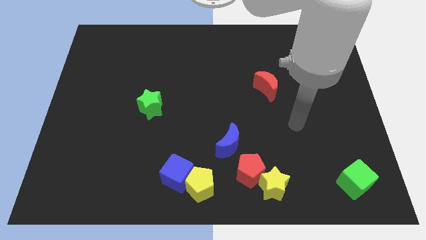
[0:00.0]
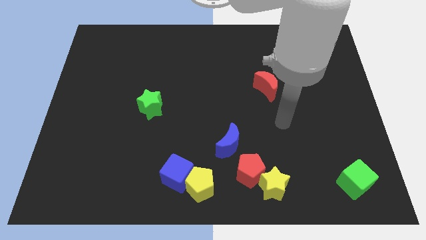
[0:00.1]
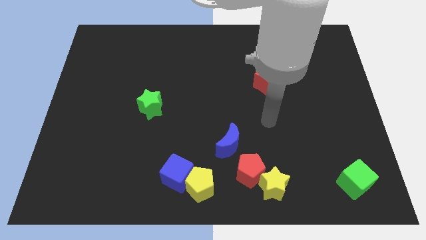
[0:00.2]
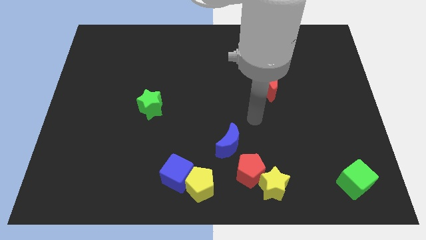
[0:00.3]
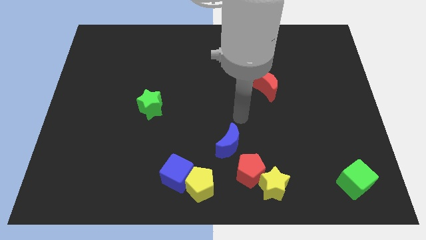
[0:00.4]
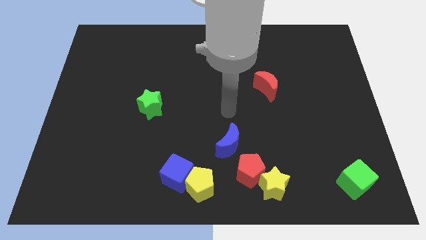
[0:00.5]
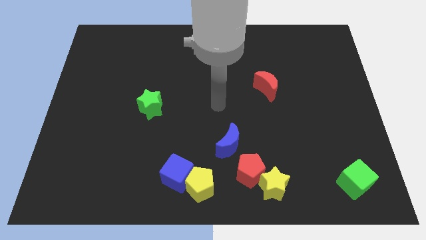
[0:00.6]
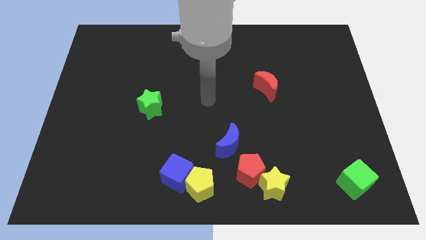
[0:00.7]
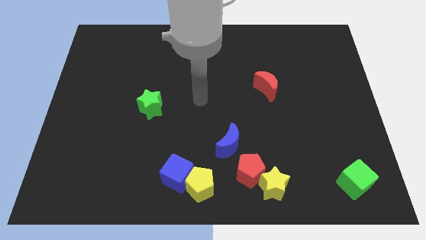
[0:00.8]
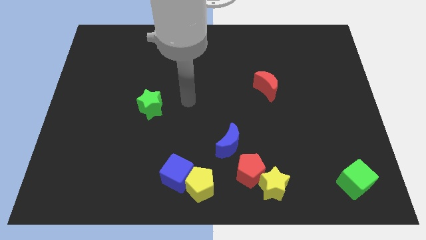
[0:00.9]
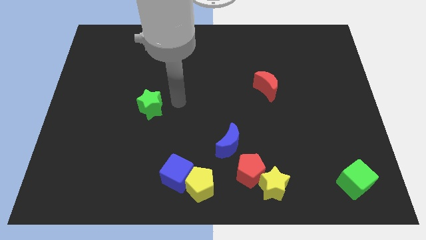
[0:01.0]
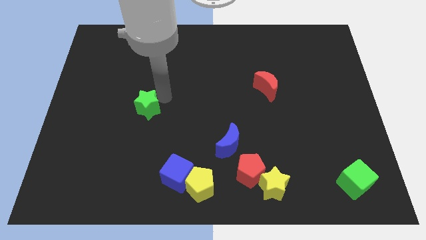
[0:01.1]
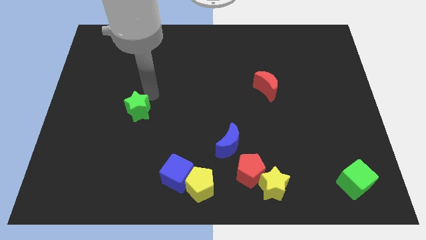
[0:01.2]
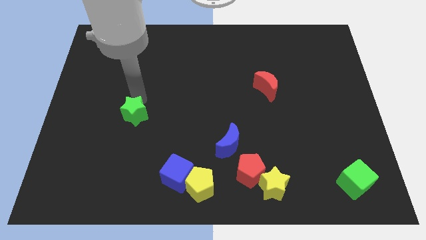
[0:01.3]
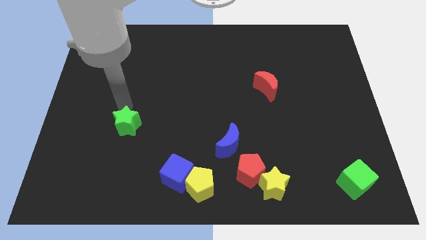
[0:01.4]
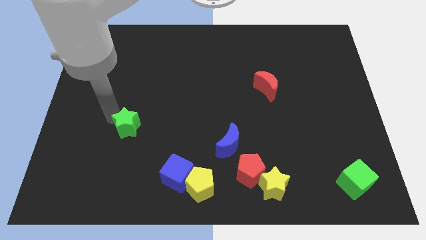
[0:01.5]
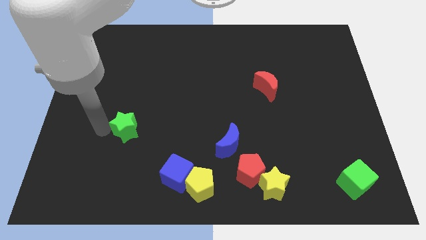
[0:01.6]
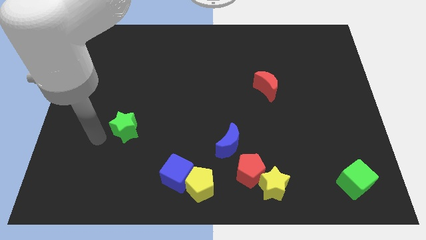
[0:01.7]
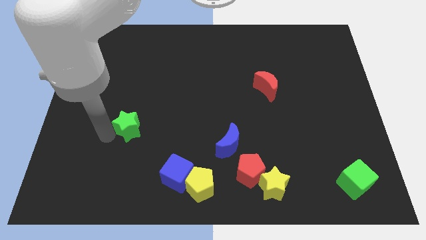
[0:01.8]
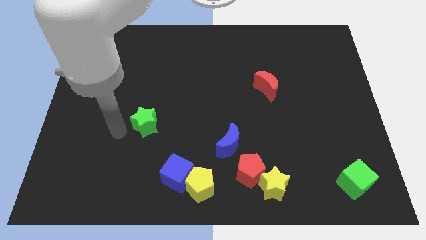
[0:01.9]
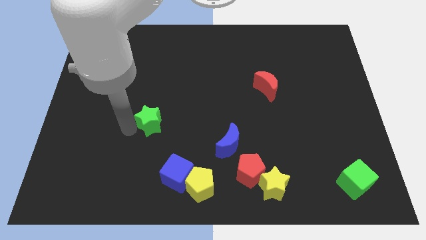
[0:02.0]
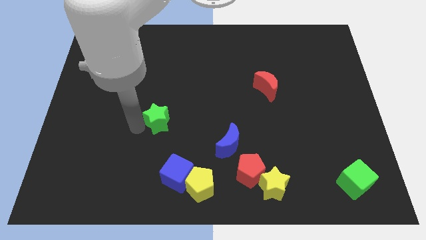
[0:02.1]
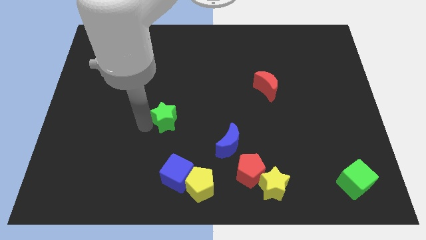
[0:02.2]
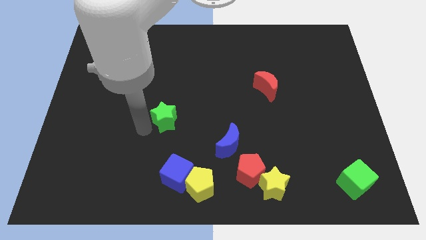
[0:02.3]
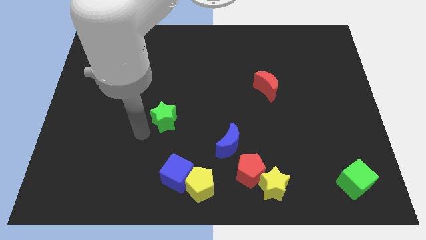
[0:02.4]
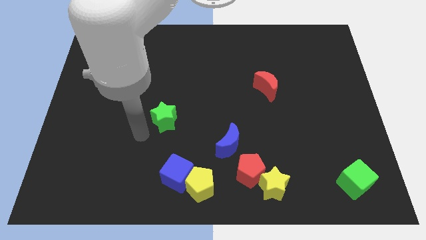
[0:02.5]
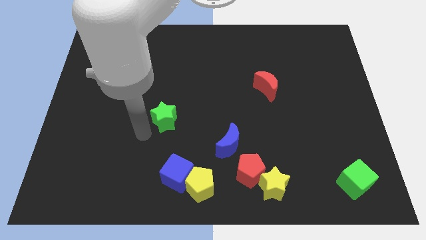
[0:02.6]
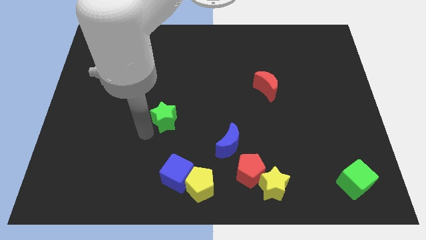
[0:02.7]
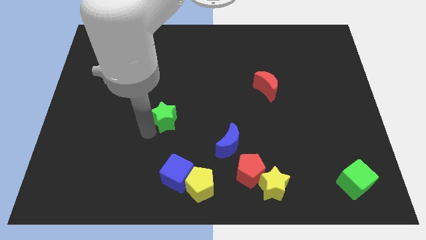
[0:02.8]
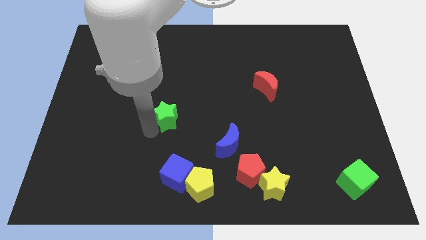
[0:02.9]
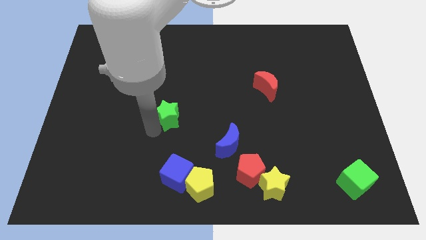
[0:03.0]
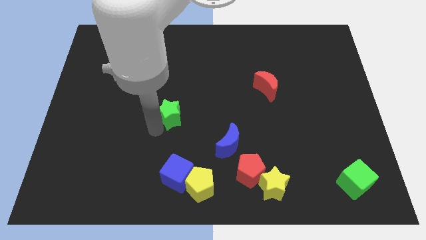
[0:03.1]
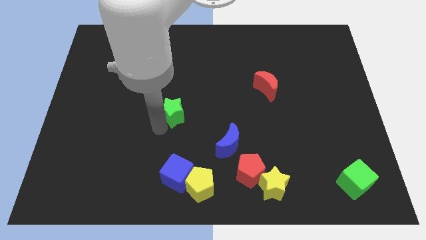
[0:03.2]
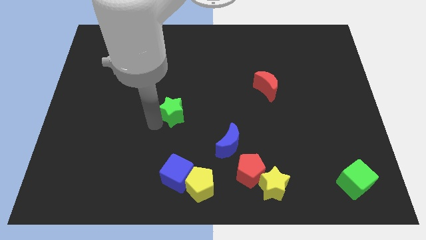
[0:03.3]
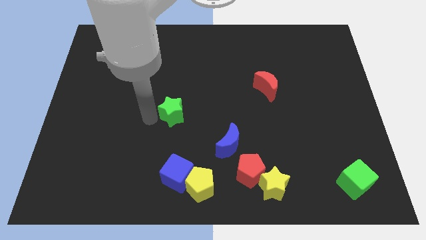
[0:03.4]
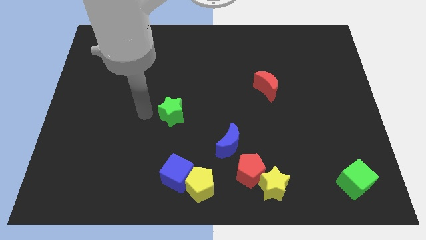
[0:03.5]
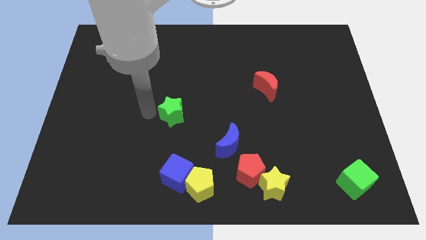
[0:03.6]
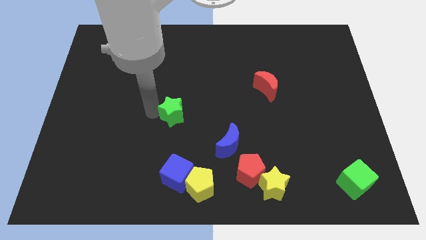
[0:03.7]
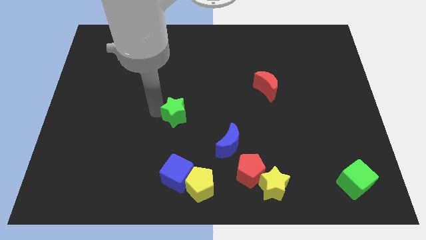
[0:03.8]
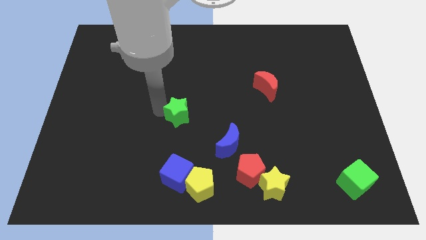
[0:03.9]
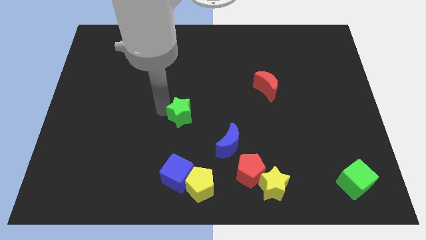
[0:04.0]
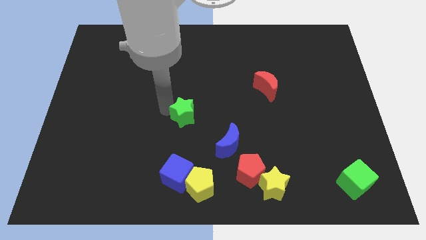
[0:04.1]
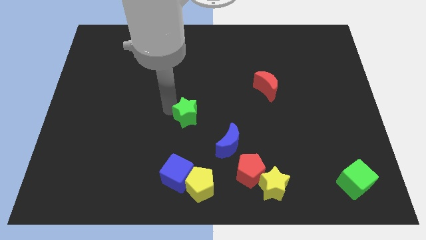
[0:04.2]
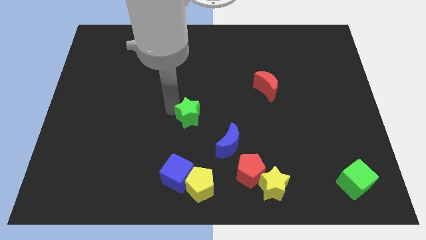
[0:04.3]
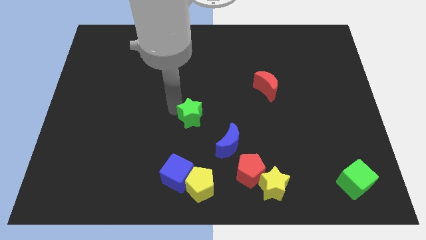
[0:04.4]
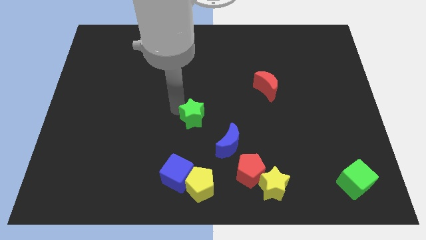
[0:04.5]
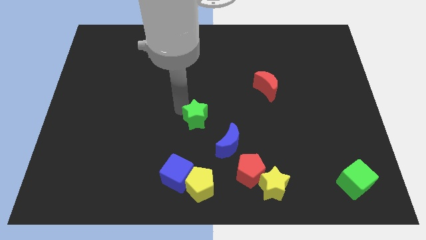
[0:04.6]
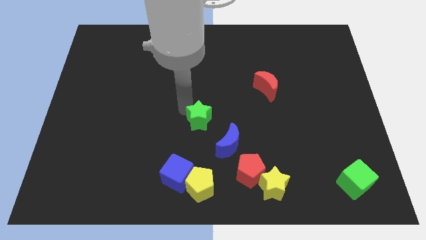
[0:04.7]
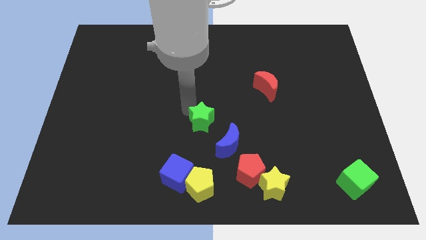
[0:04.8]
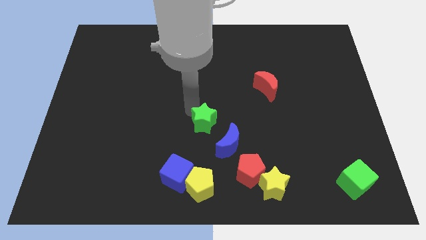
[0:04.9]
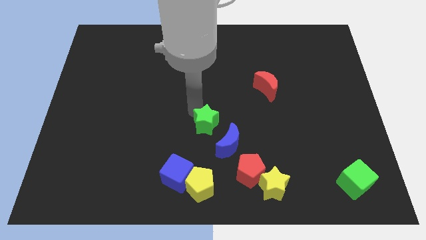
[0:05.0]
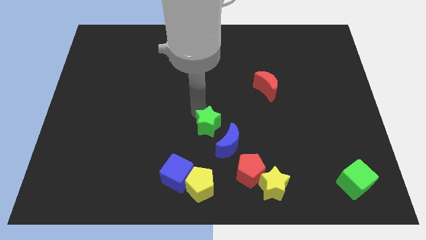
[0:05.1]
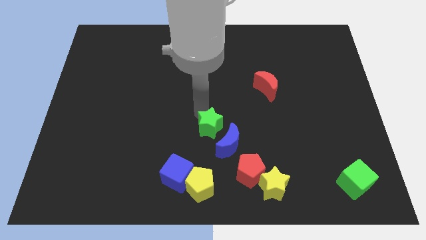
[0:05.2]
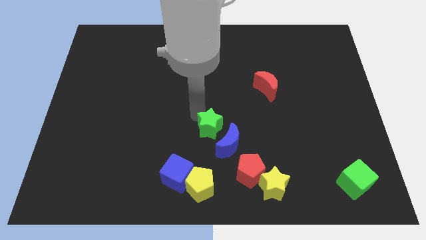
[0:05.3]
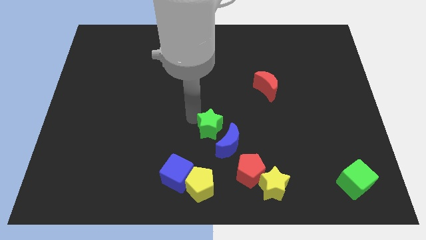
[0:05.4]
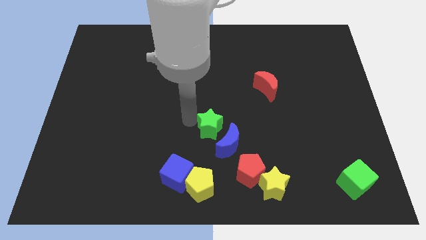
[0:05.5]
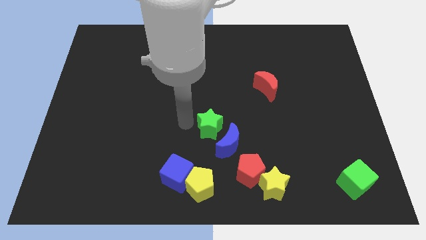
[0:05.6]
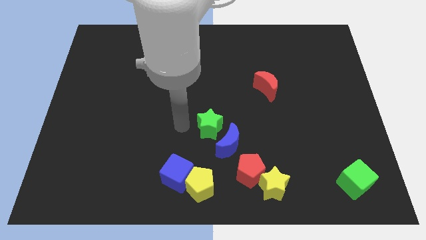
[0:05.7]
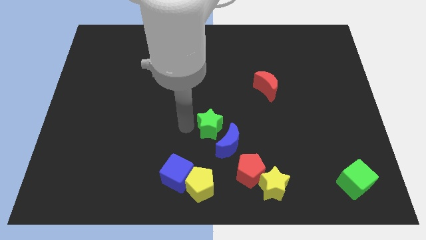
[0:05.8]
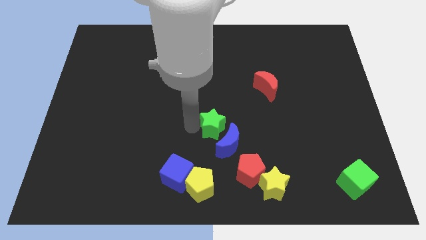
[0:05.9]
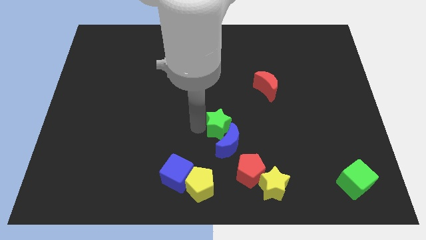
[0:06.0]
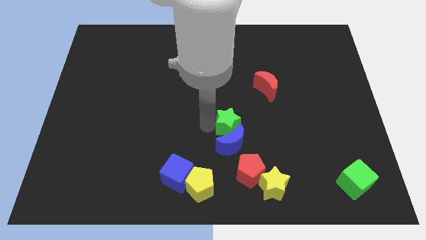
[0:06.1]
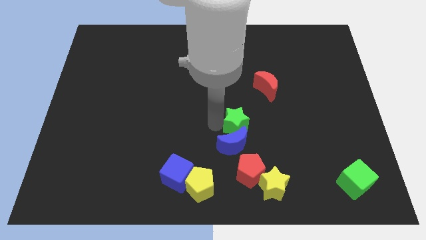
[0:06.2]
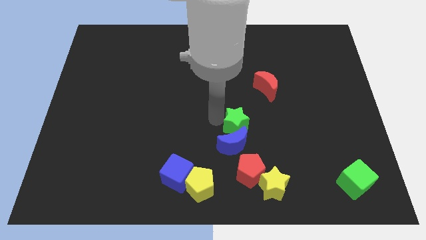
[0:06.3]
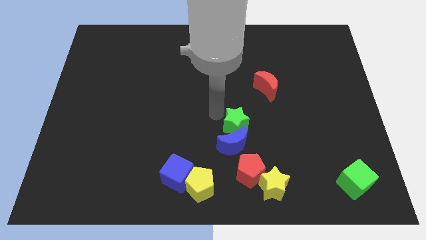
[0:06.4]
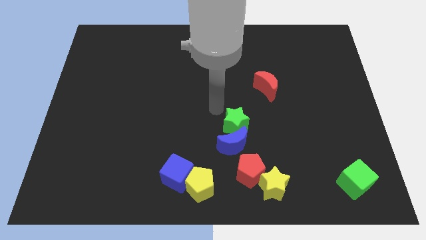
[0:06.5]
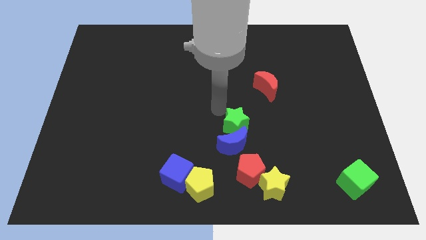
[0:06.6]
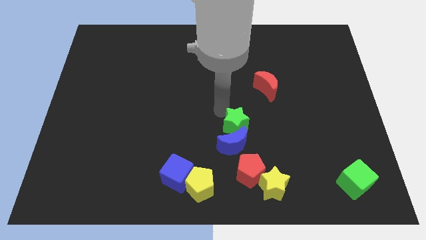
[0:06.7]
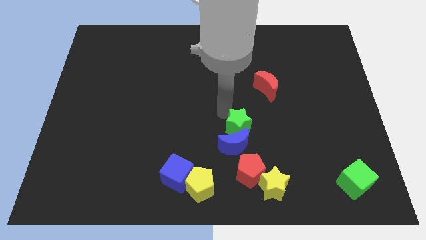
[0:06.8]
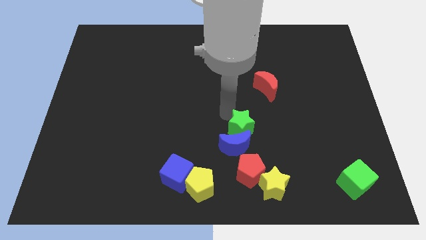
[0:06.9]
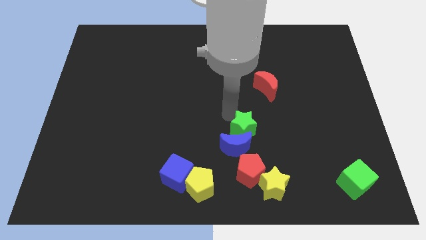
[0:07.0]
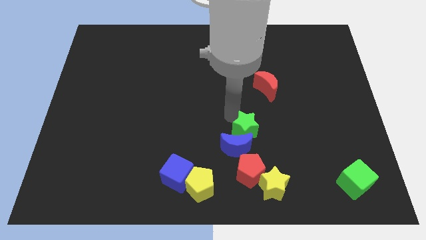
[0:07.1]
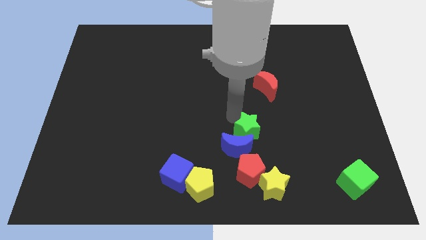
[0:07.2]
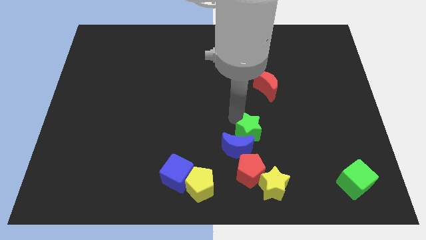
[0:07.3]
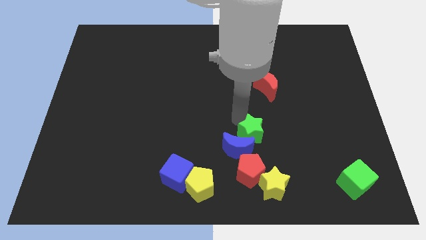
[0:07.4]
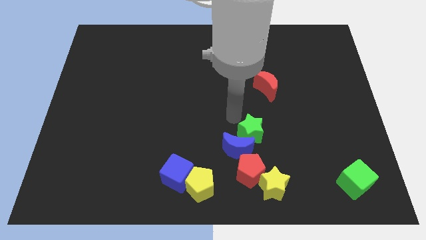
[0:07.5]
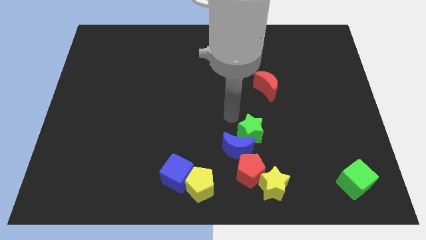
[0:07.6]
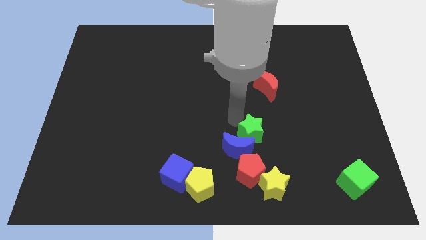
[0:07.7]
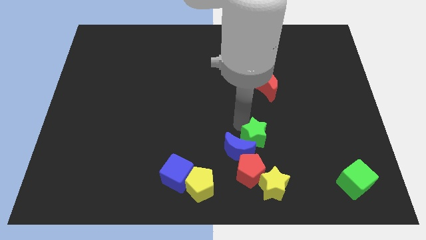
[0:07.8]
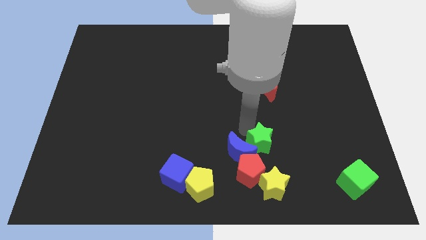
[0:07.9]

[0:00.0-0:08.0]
move the green star to the top right side of the red pentagon
